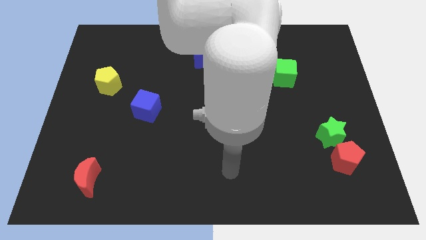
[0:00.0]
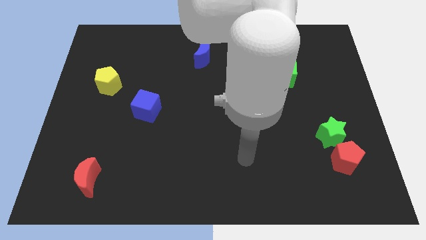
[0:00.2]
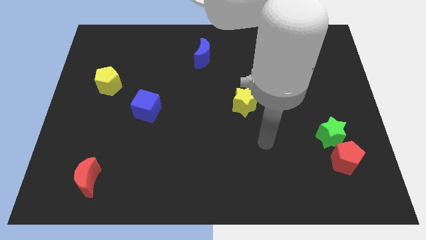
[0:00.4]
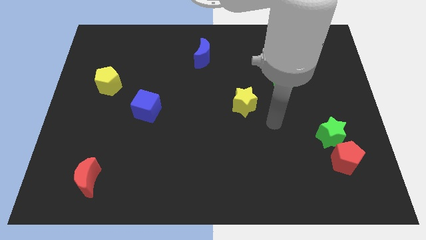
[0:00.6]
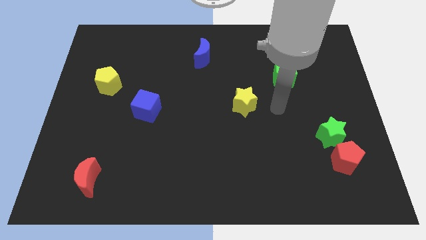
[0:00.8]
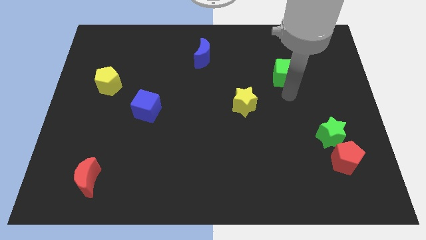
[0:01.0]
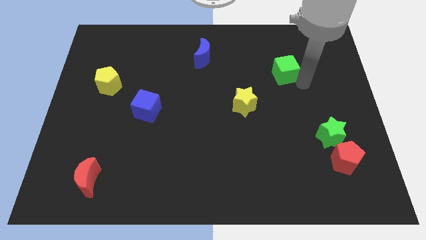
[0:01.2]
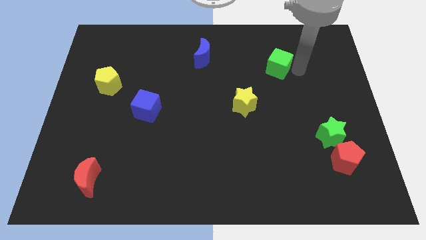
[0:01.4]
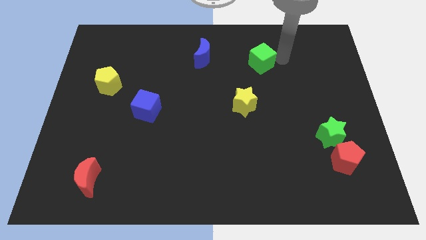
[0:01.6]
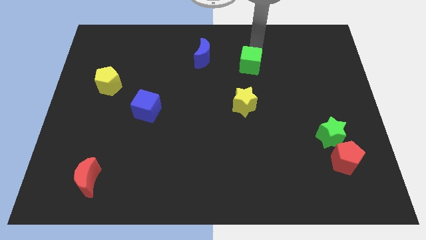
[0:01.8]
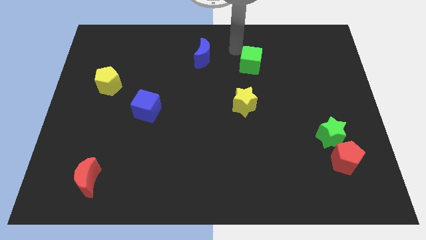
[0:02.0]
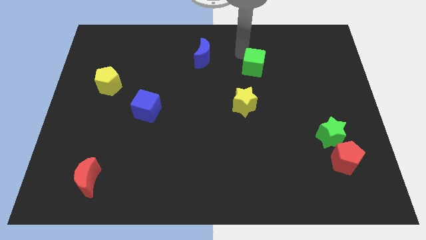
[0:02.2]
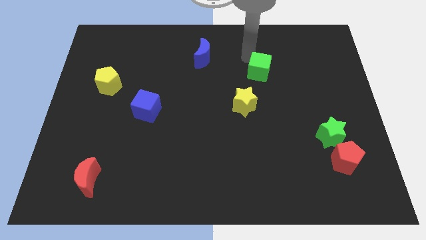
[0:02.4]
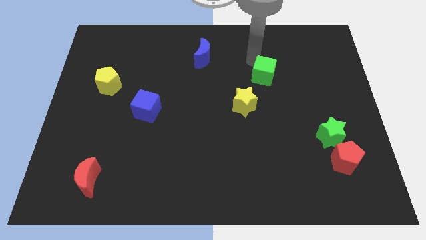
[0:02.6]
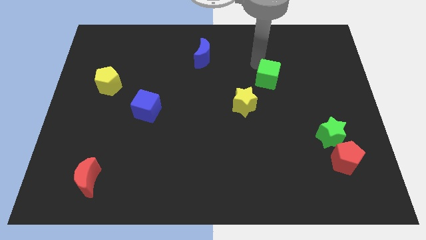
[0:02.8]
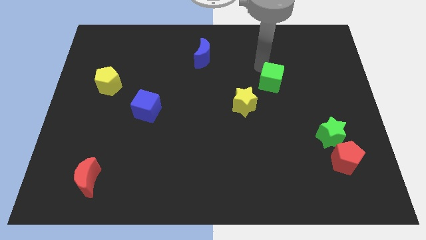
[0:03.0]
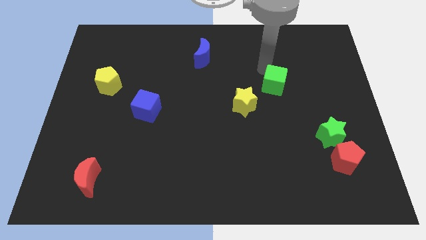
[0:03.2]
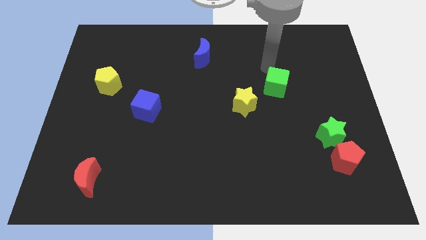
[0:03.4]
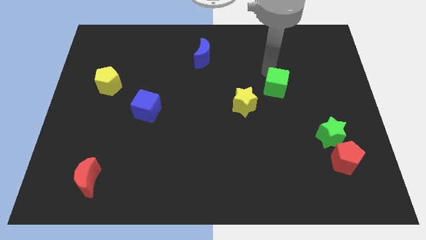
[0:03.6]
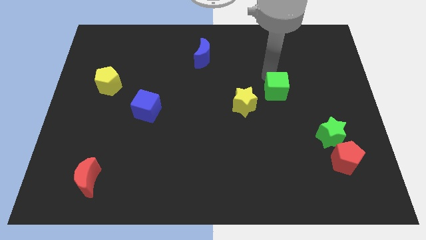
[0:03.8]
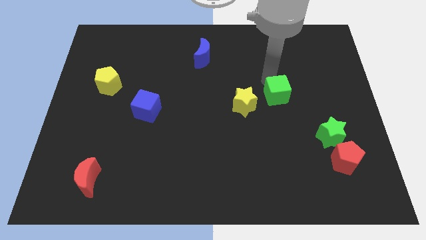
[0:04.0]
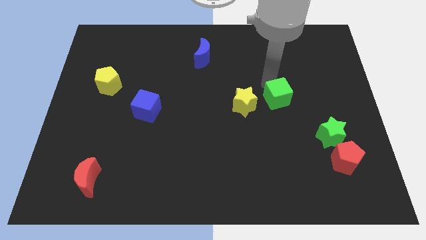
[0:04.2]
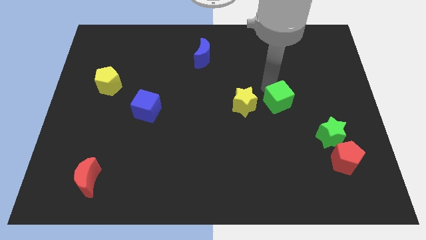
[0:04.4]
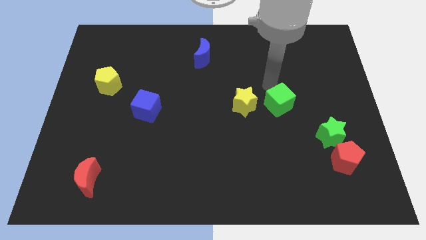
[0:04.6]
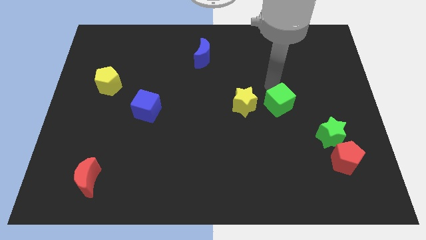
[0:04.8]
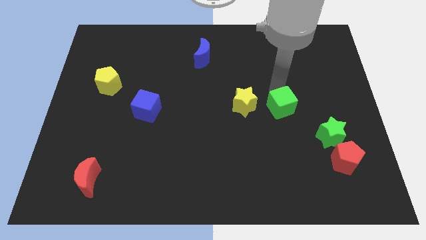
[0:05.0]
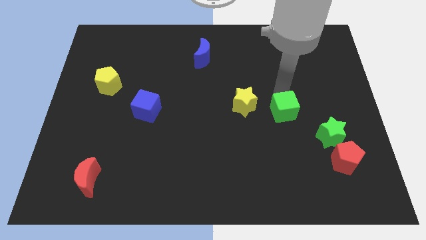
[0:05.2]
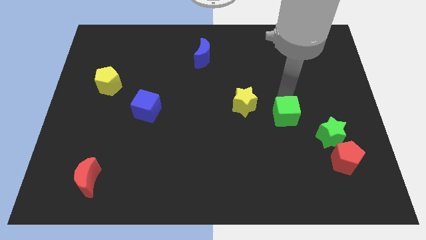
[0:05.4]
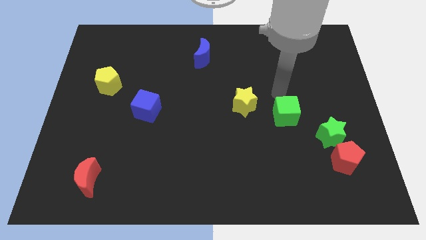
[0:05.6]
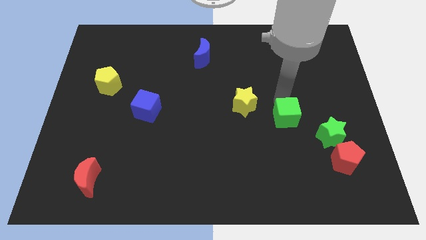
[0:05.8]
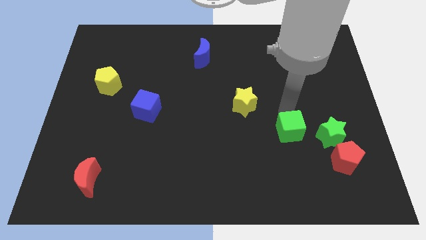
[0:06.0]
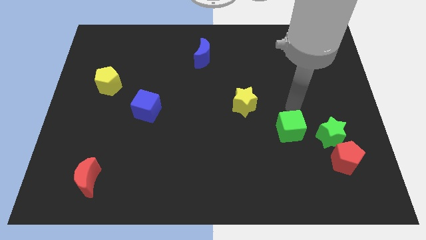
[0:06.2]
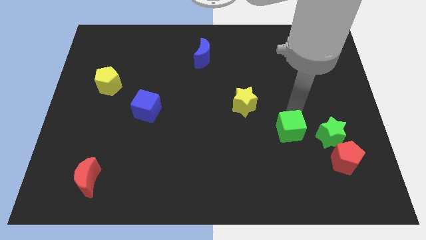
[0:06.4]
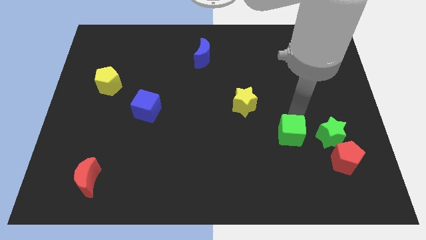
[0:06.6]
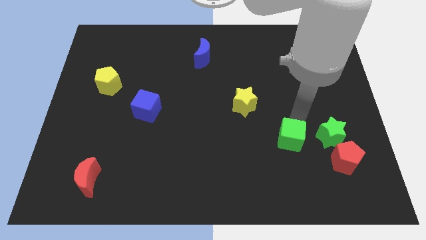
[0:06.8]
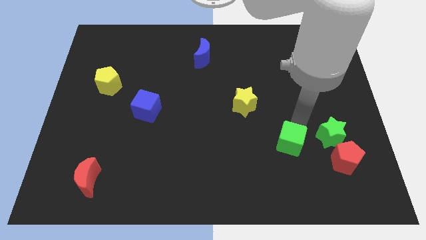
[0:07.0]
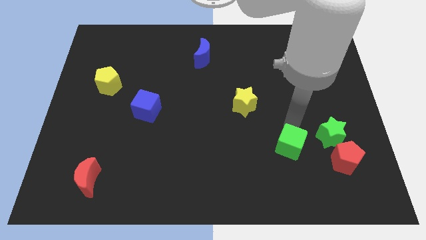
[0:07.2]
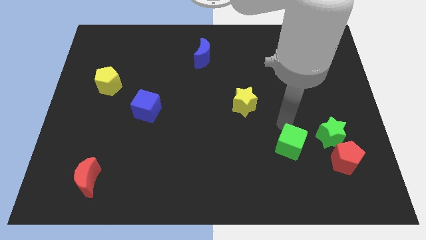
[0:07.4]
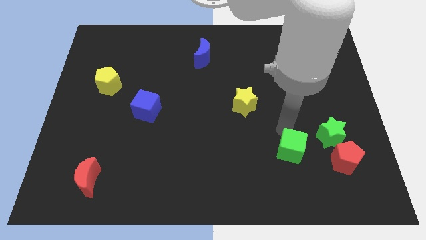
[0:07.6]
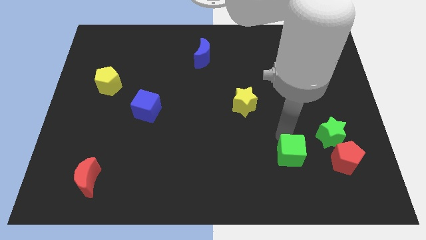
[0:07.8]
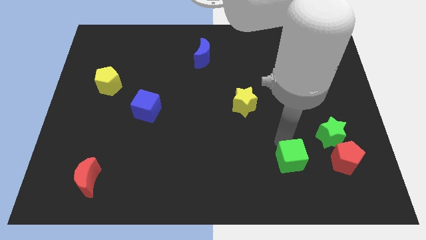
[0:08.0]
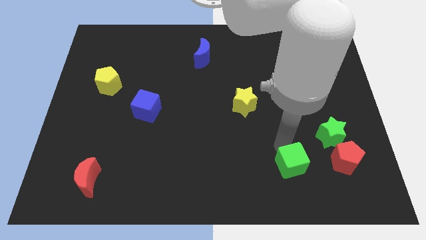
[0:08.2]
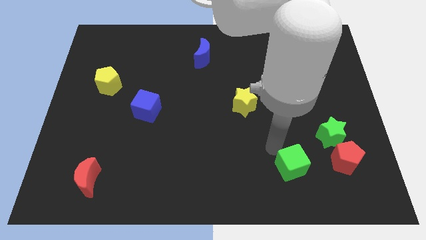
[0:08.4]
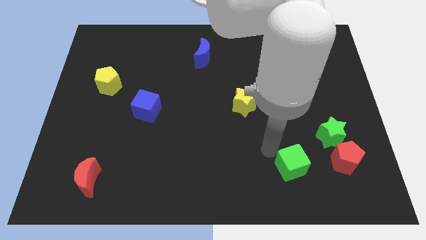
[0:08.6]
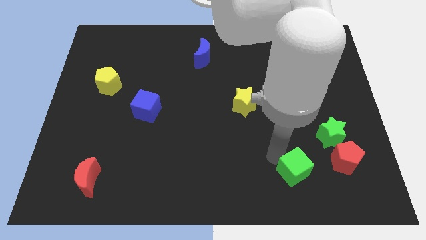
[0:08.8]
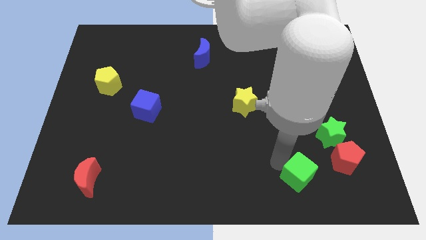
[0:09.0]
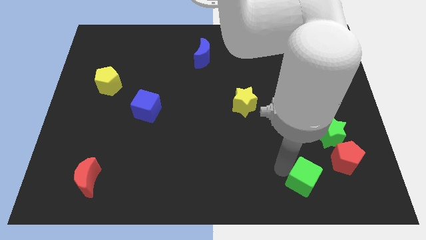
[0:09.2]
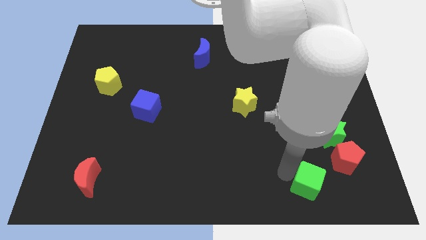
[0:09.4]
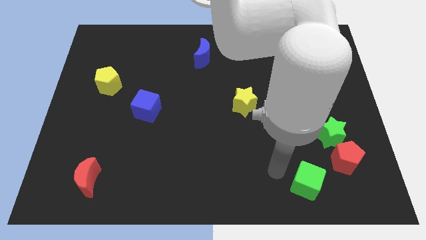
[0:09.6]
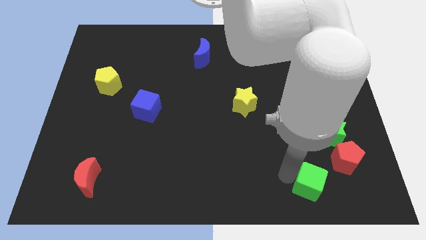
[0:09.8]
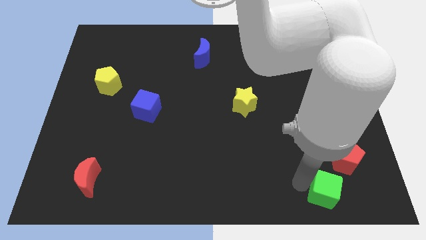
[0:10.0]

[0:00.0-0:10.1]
move the green cube to the bottom side of the green star

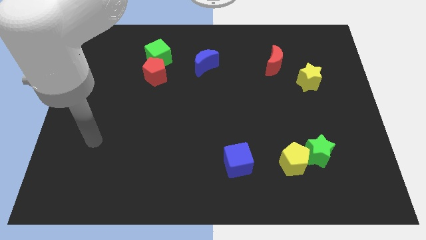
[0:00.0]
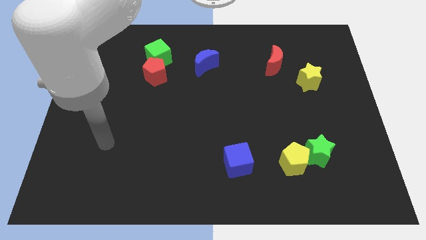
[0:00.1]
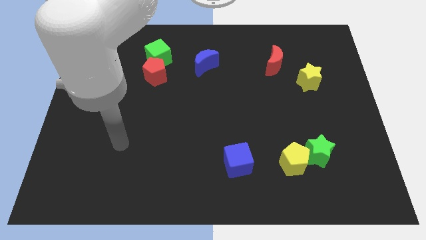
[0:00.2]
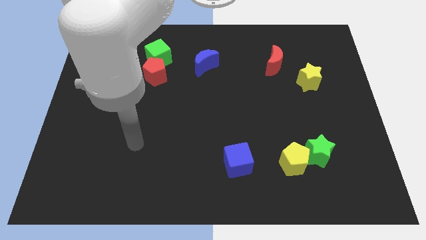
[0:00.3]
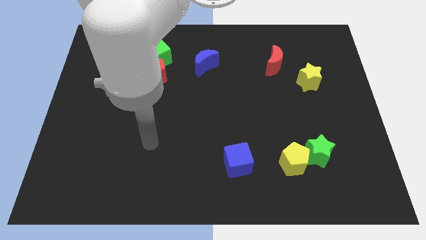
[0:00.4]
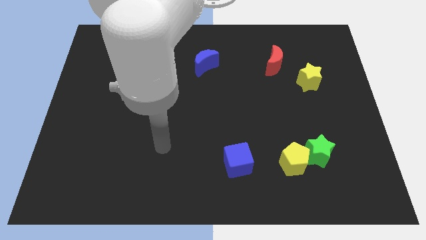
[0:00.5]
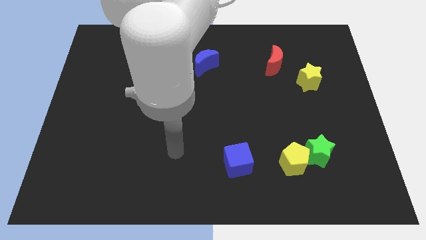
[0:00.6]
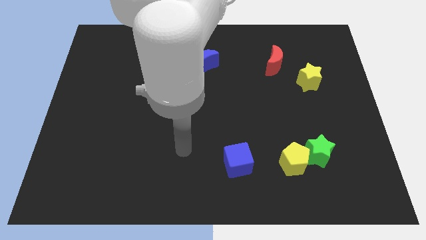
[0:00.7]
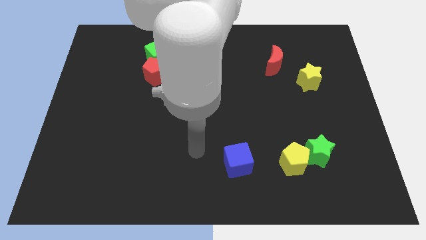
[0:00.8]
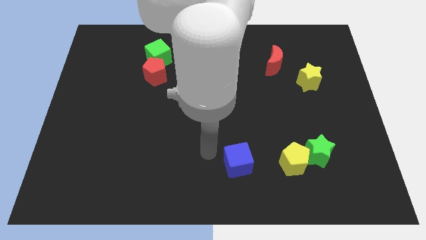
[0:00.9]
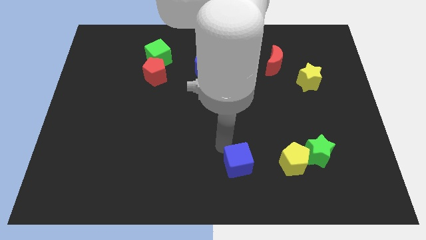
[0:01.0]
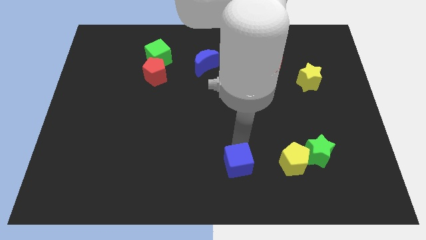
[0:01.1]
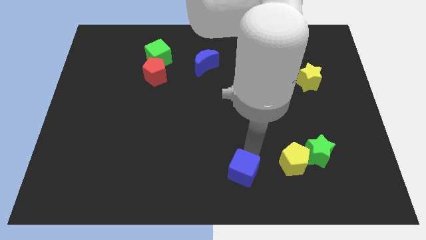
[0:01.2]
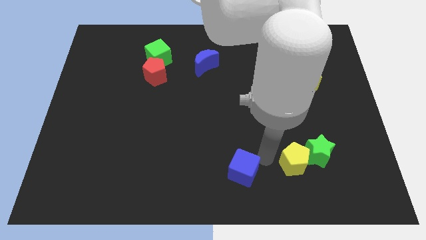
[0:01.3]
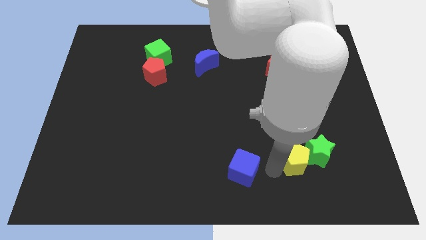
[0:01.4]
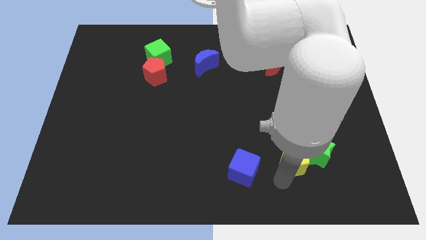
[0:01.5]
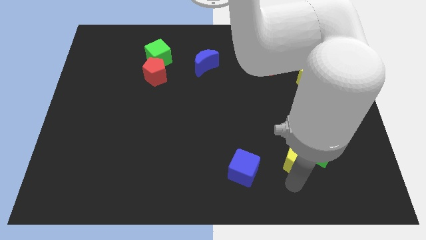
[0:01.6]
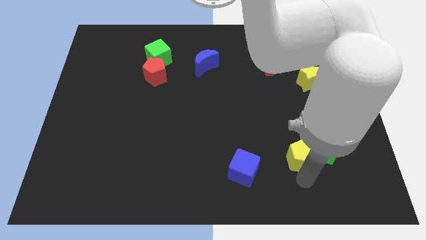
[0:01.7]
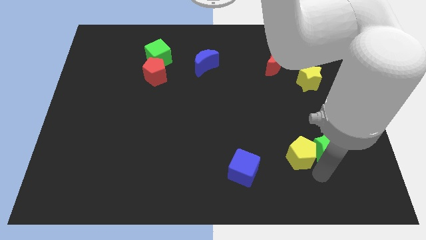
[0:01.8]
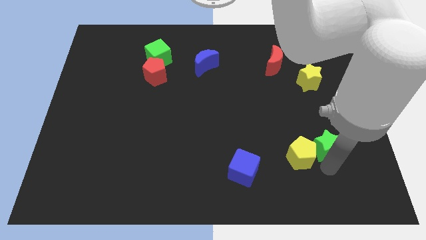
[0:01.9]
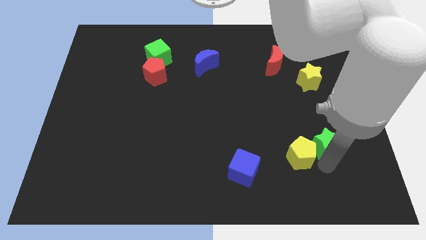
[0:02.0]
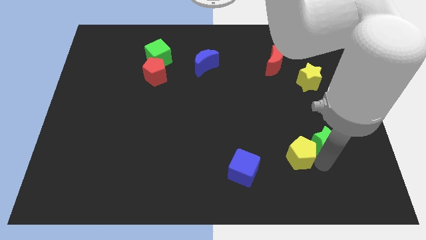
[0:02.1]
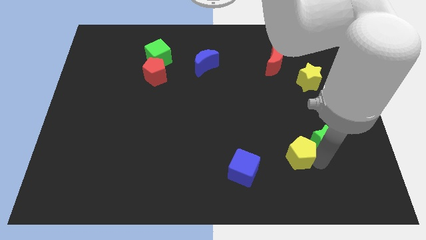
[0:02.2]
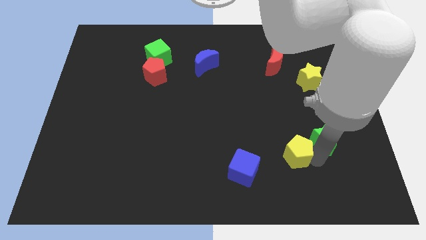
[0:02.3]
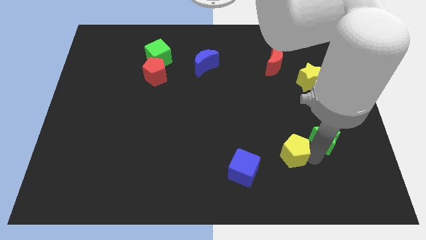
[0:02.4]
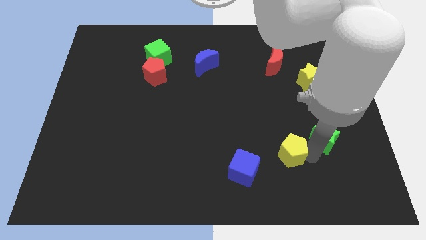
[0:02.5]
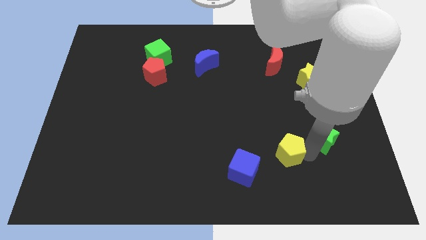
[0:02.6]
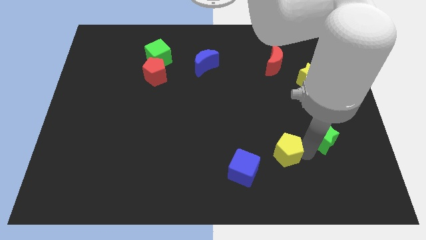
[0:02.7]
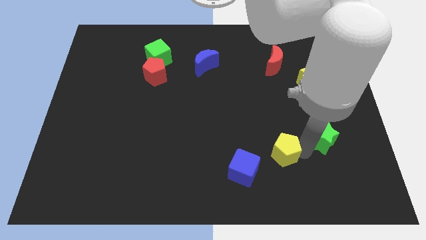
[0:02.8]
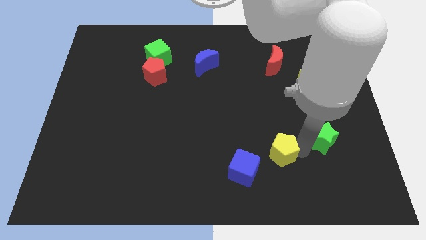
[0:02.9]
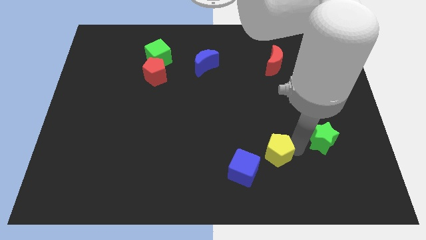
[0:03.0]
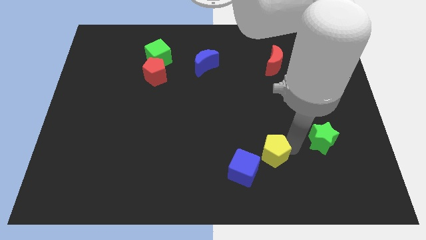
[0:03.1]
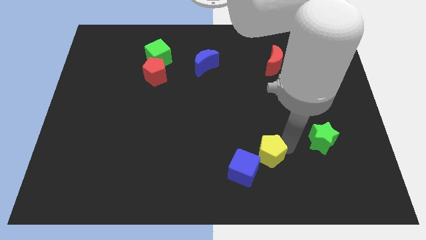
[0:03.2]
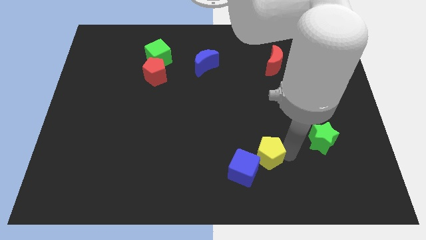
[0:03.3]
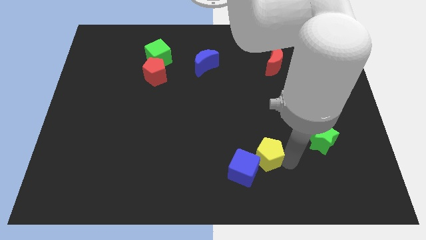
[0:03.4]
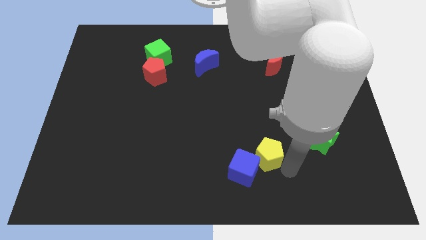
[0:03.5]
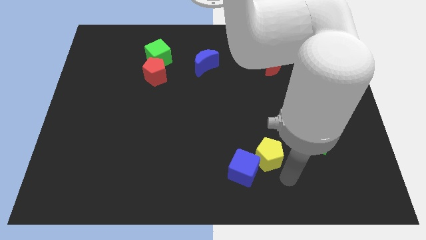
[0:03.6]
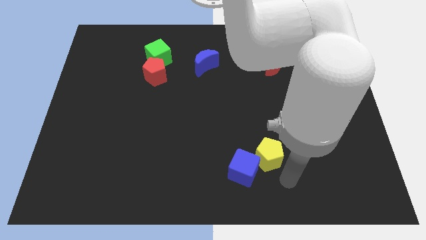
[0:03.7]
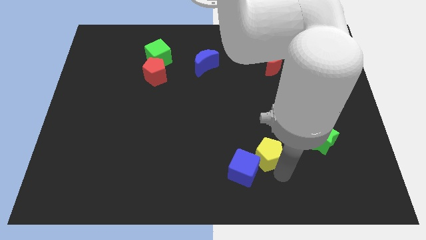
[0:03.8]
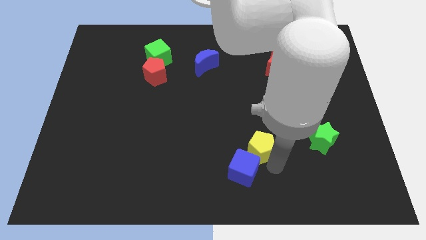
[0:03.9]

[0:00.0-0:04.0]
put the yellow pentagon above the blue cube
